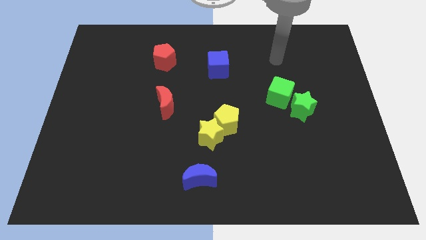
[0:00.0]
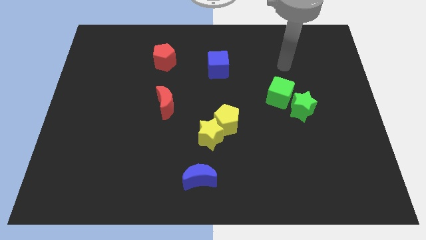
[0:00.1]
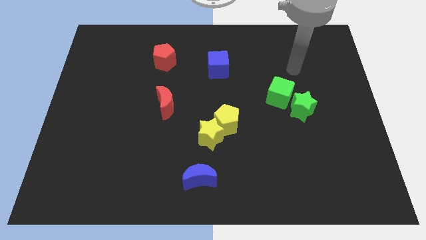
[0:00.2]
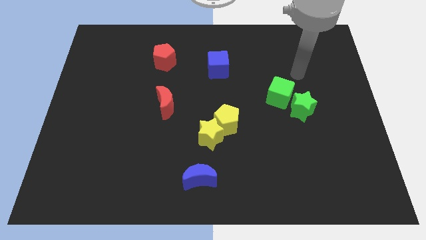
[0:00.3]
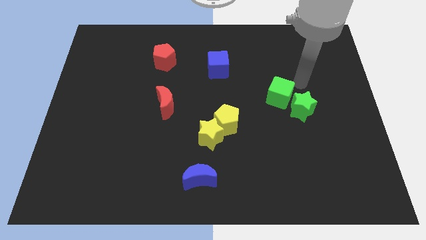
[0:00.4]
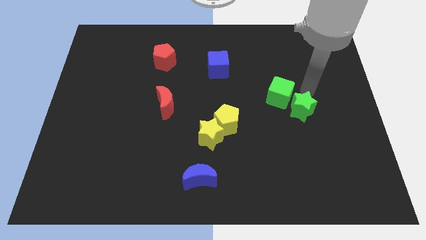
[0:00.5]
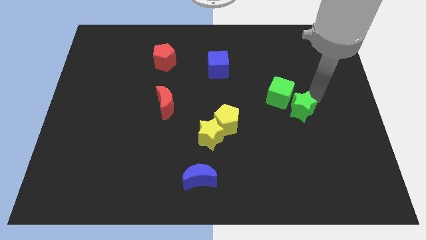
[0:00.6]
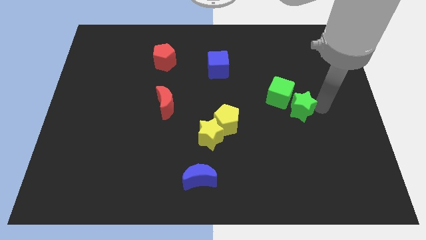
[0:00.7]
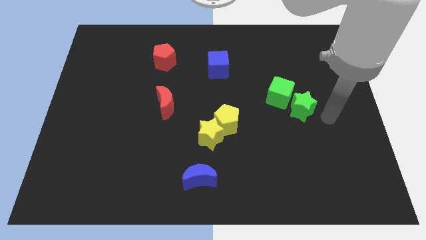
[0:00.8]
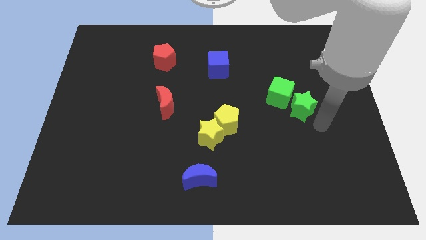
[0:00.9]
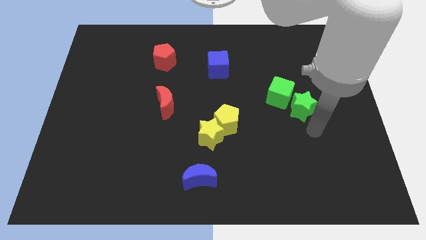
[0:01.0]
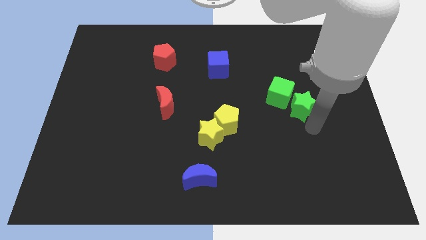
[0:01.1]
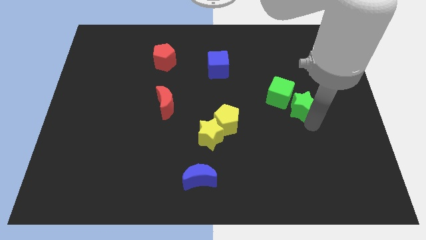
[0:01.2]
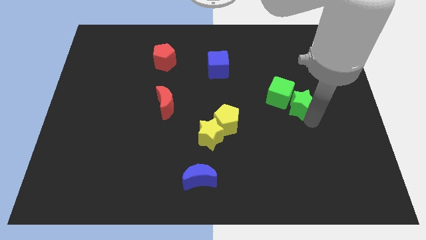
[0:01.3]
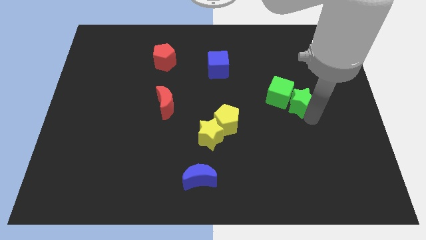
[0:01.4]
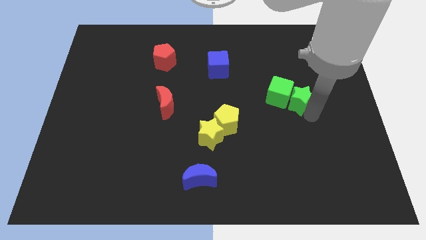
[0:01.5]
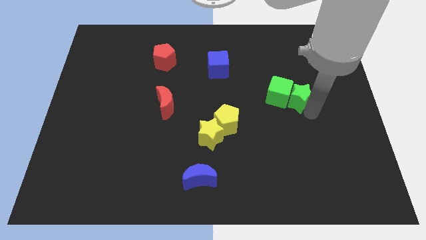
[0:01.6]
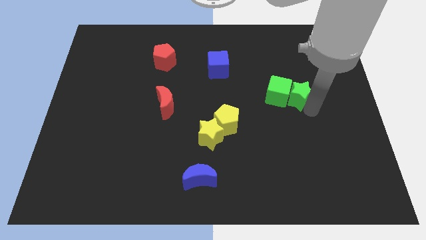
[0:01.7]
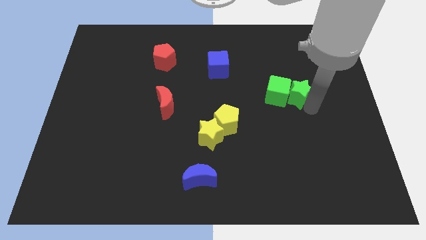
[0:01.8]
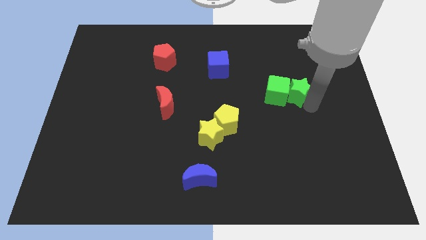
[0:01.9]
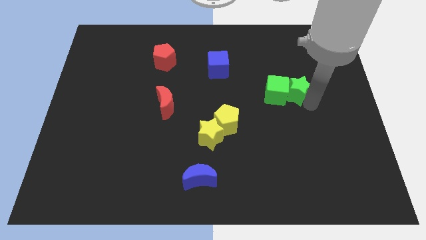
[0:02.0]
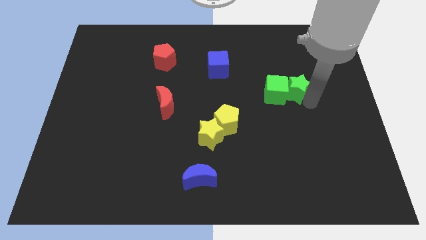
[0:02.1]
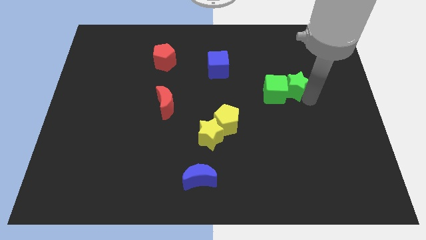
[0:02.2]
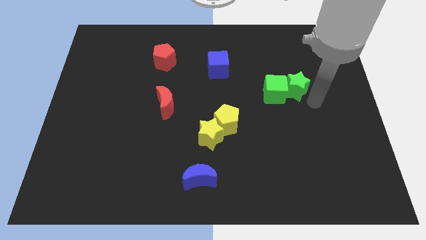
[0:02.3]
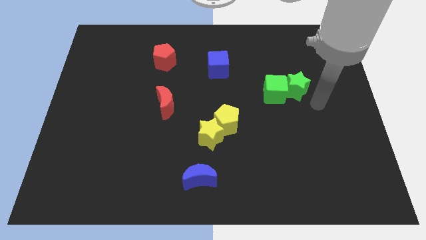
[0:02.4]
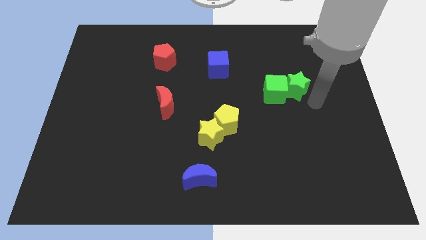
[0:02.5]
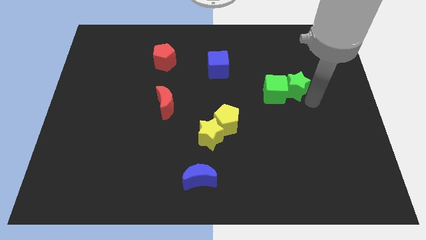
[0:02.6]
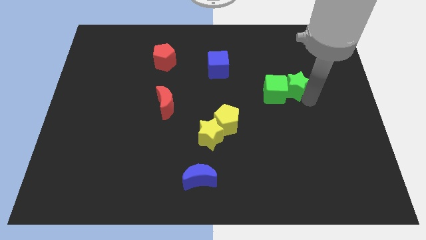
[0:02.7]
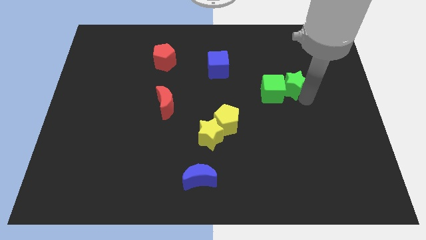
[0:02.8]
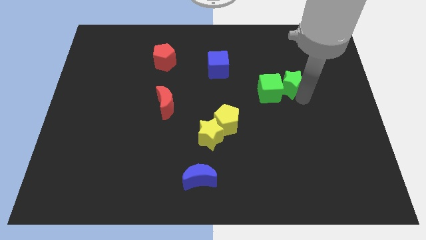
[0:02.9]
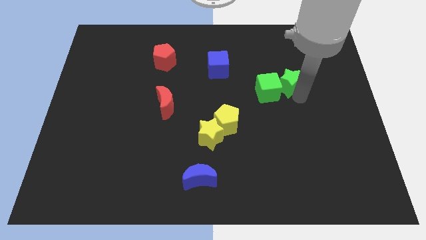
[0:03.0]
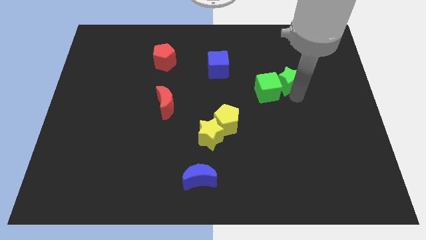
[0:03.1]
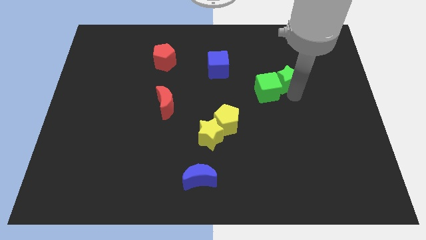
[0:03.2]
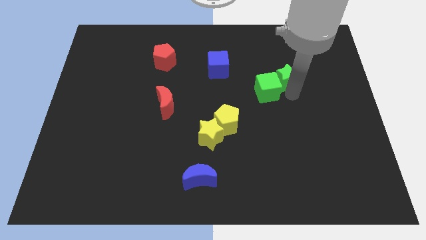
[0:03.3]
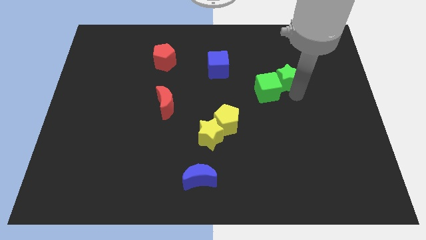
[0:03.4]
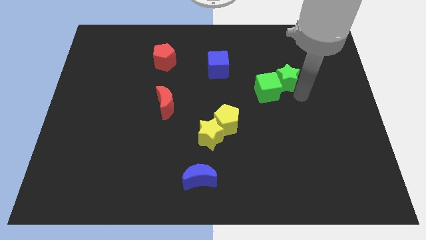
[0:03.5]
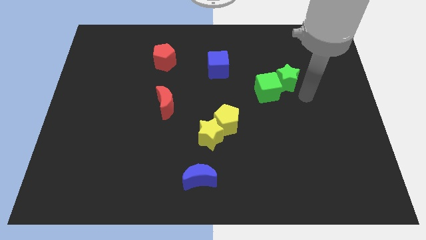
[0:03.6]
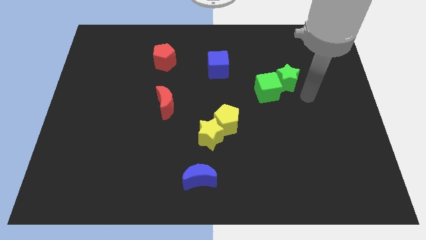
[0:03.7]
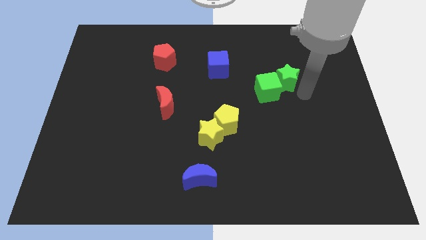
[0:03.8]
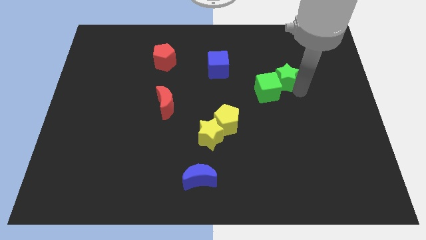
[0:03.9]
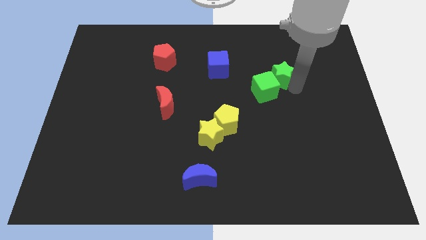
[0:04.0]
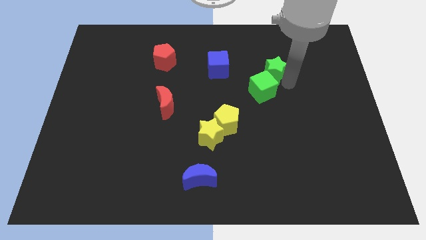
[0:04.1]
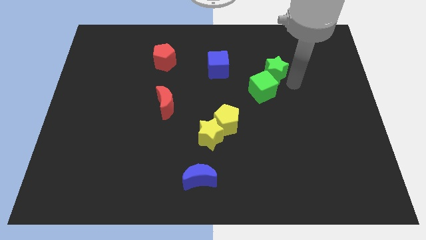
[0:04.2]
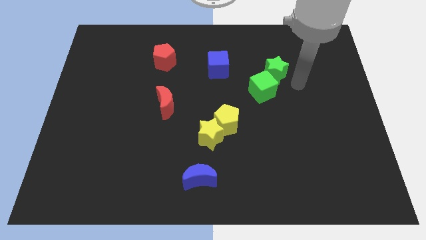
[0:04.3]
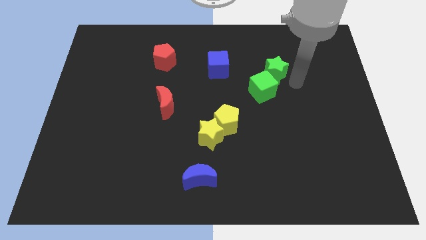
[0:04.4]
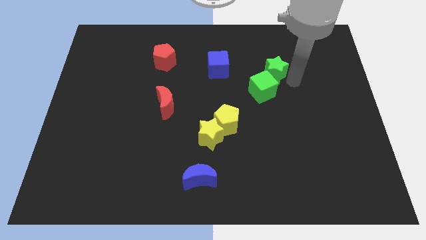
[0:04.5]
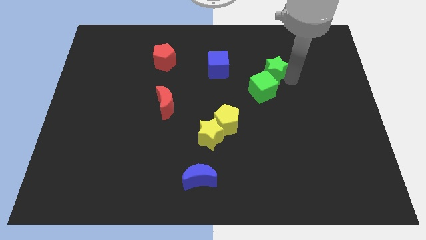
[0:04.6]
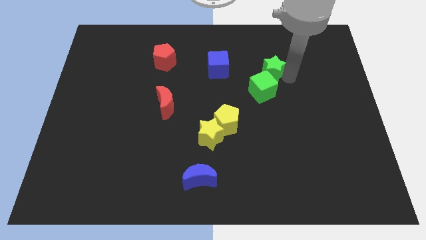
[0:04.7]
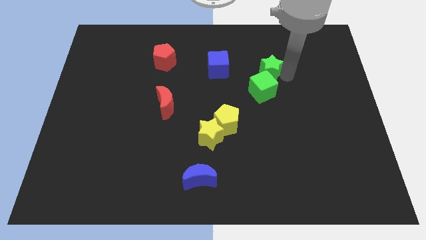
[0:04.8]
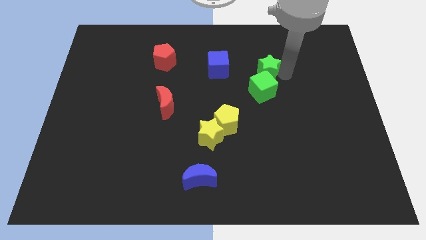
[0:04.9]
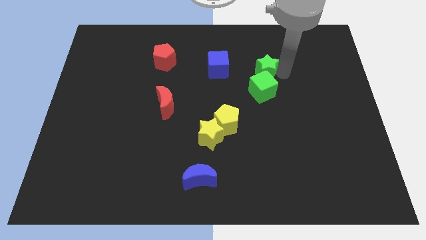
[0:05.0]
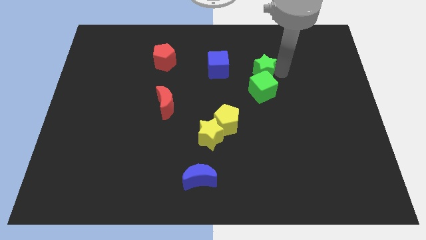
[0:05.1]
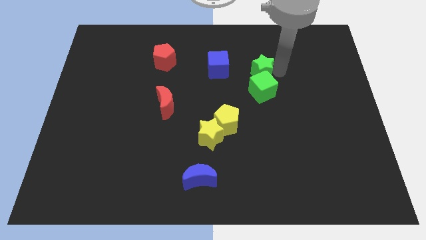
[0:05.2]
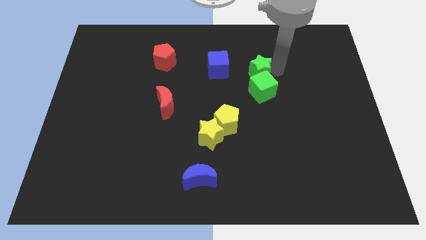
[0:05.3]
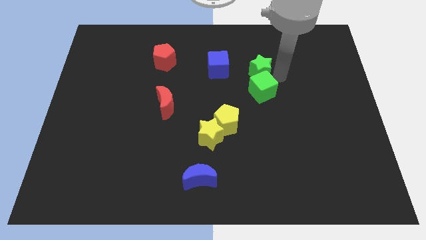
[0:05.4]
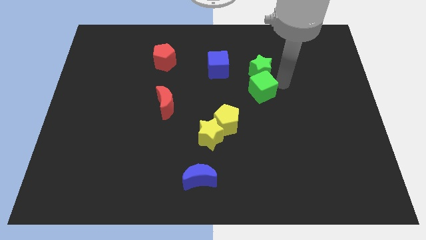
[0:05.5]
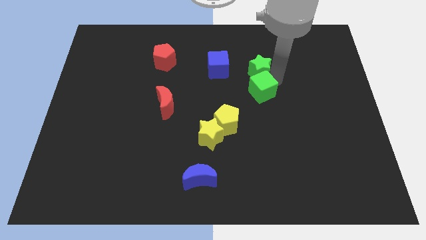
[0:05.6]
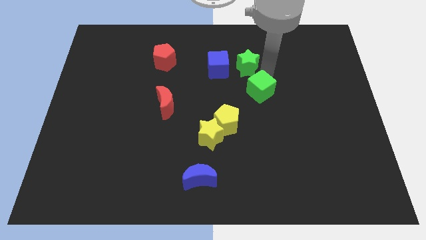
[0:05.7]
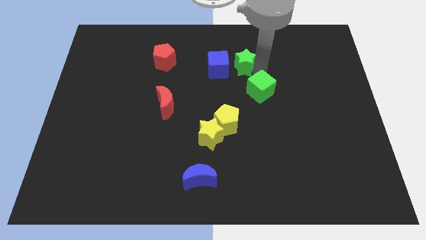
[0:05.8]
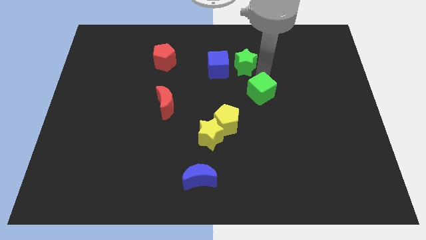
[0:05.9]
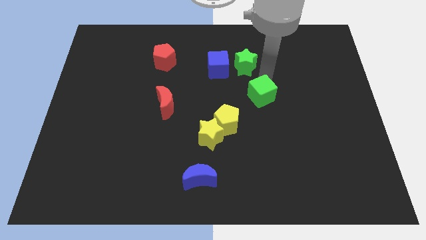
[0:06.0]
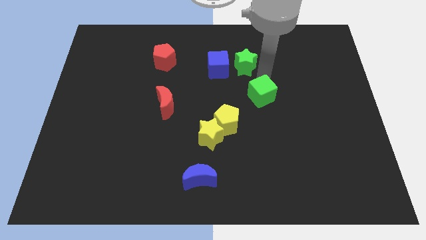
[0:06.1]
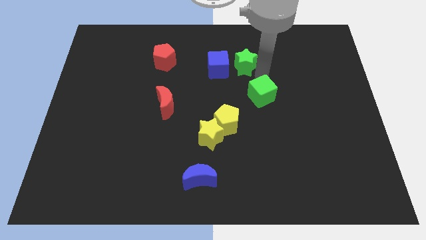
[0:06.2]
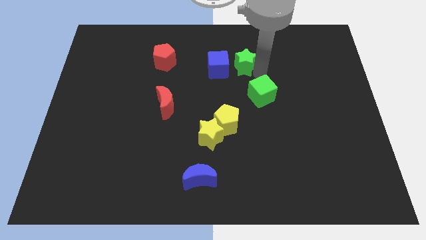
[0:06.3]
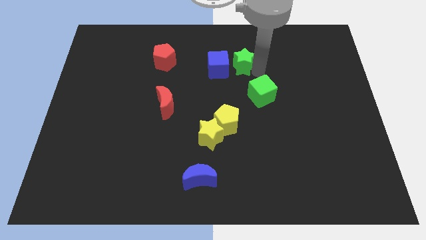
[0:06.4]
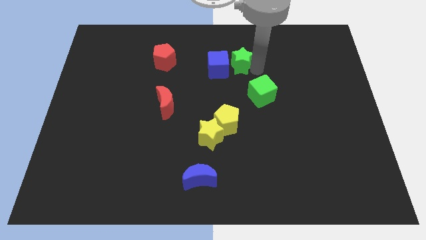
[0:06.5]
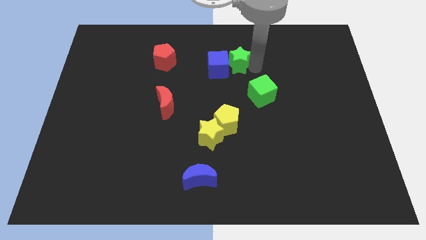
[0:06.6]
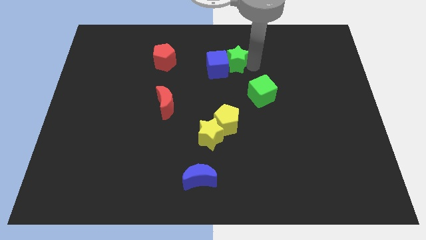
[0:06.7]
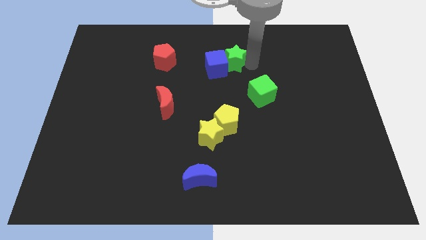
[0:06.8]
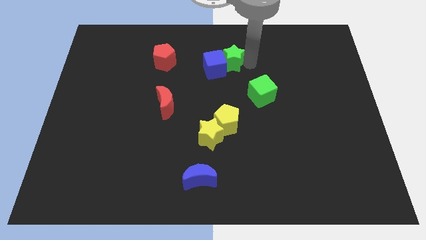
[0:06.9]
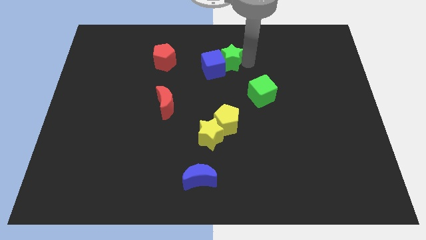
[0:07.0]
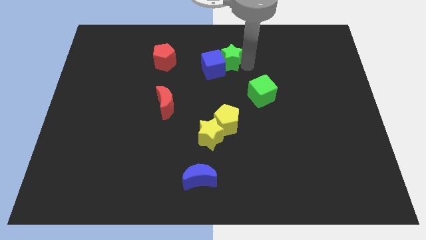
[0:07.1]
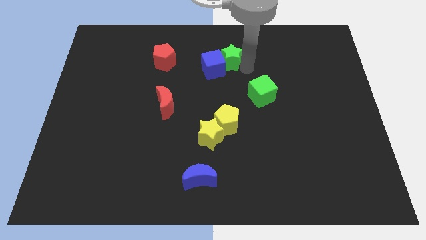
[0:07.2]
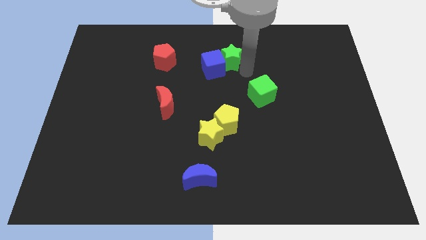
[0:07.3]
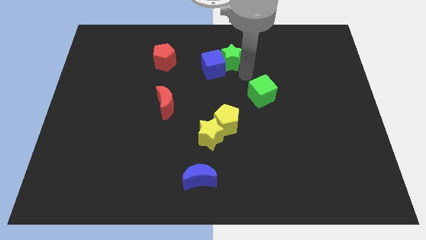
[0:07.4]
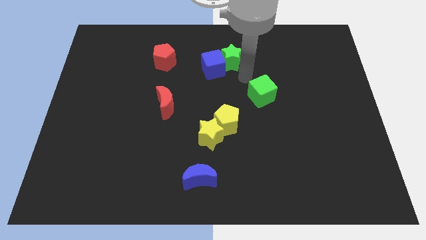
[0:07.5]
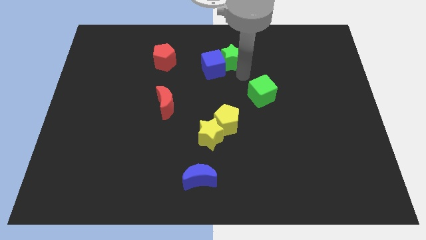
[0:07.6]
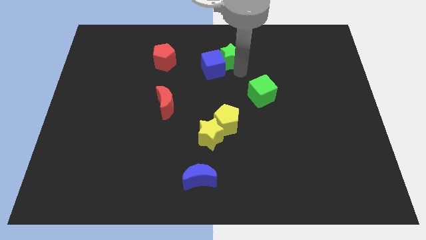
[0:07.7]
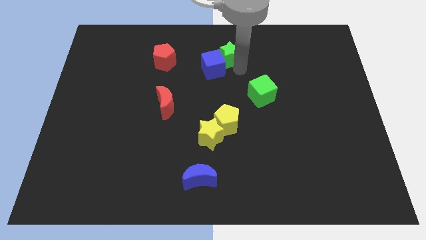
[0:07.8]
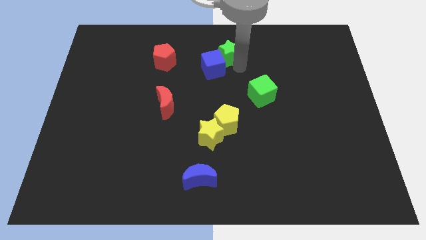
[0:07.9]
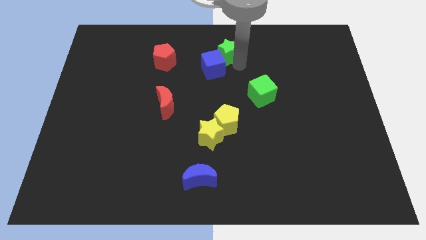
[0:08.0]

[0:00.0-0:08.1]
move the green star to the top side
